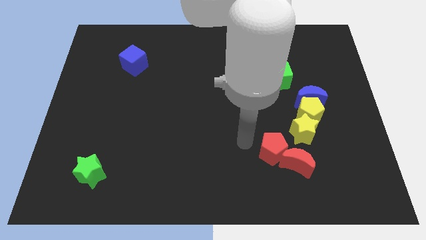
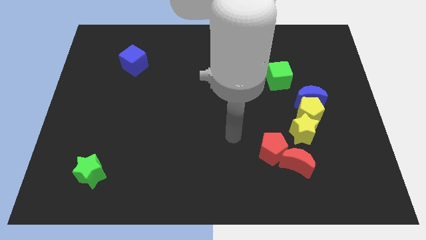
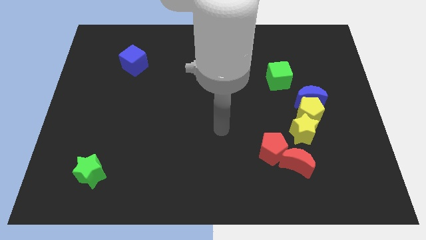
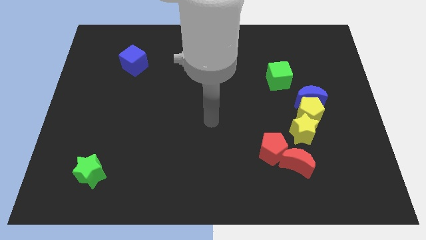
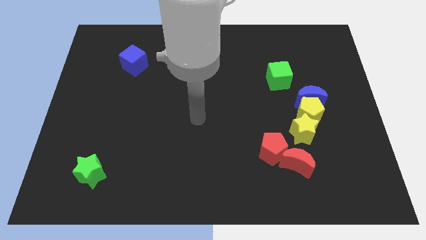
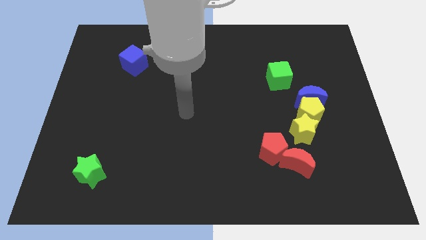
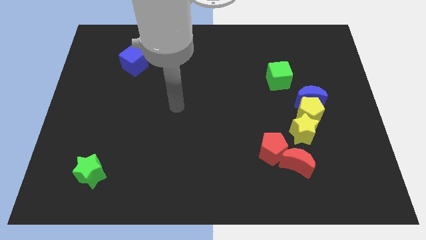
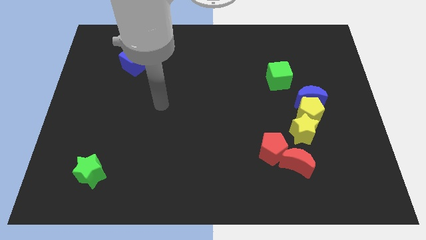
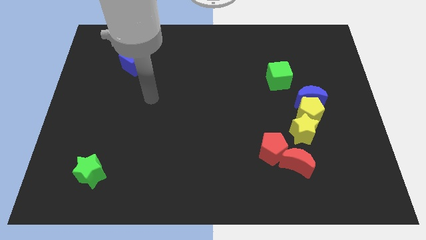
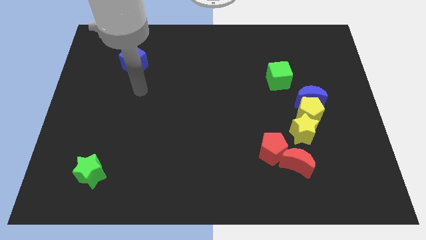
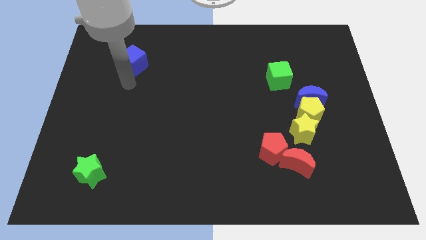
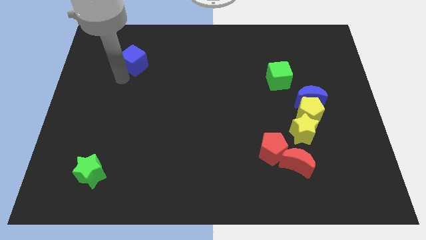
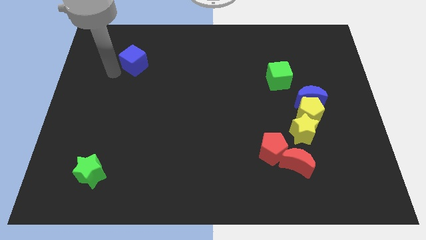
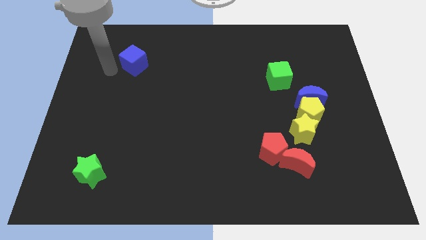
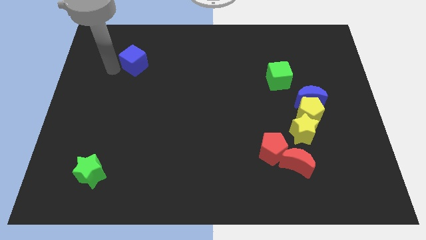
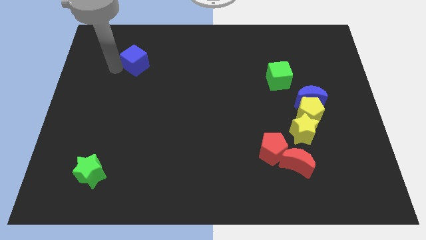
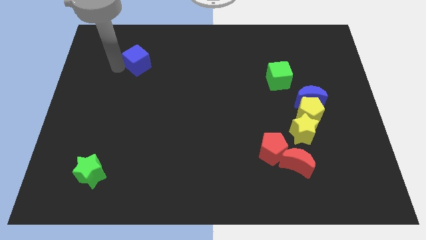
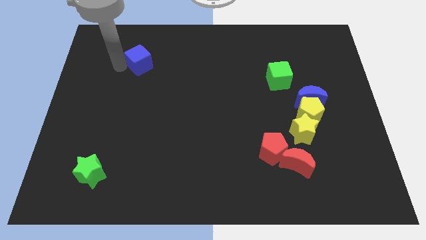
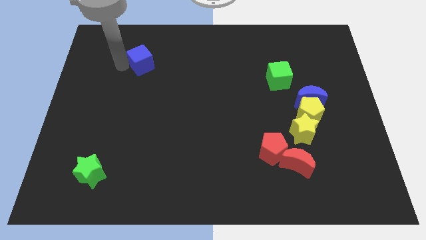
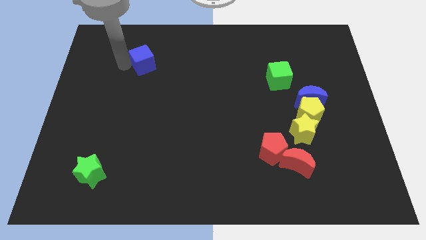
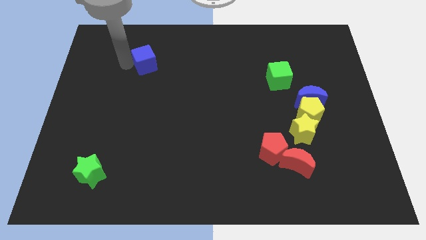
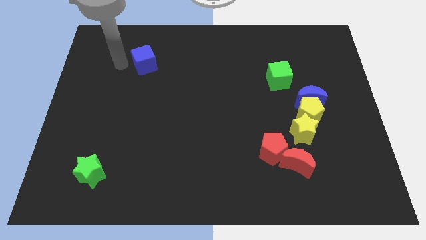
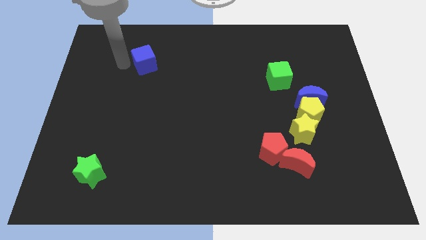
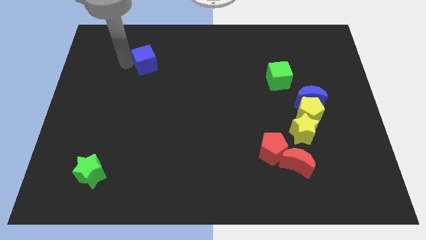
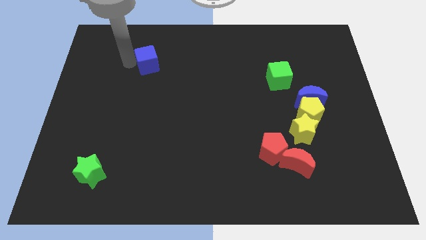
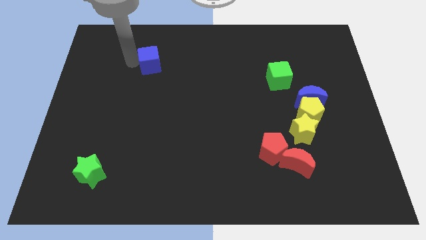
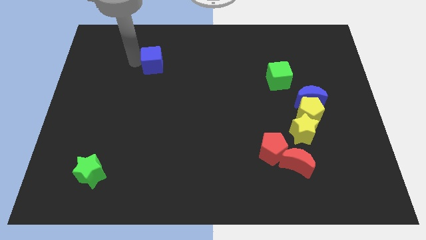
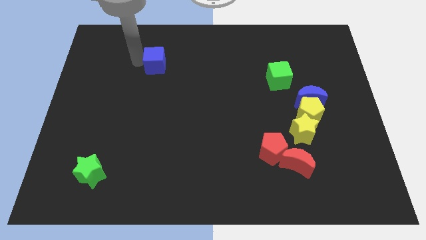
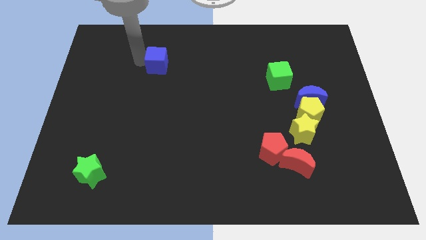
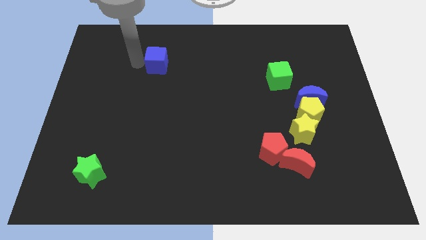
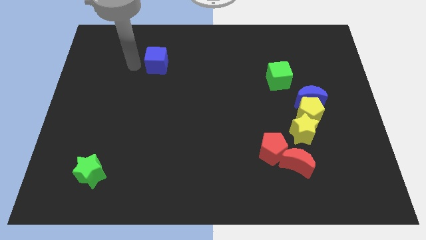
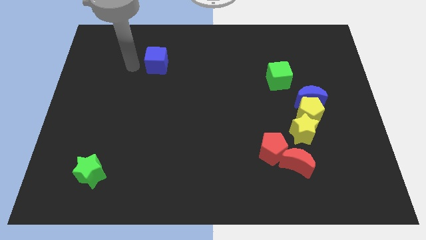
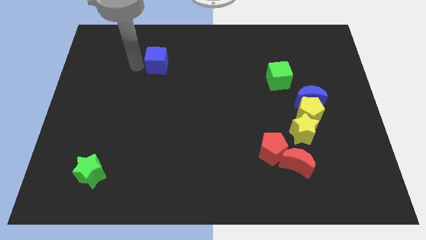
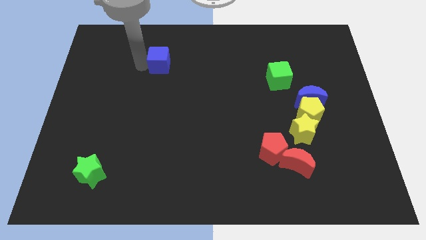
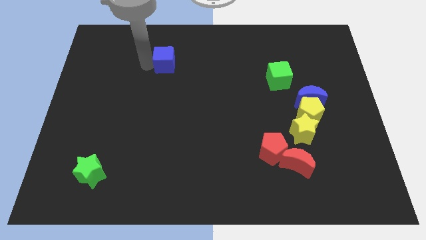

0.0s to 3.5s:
push the blue cube a little bit to the right

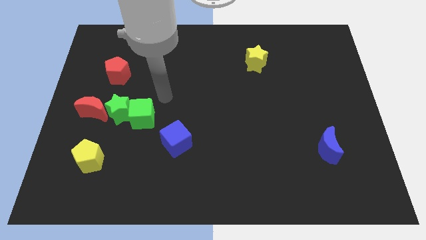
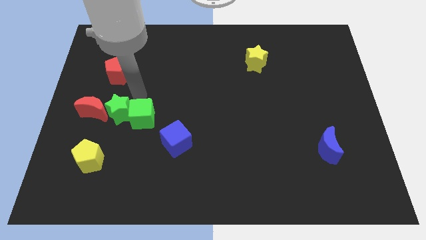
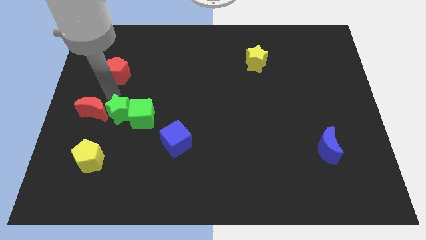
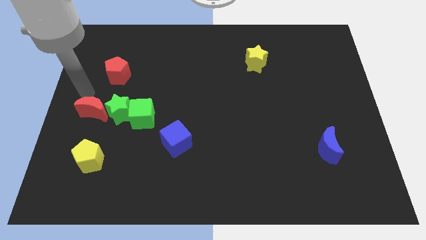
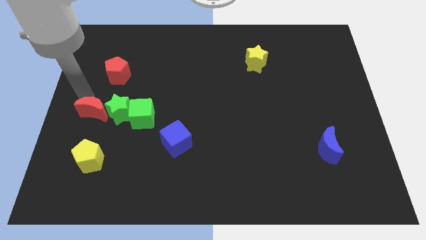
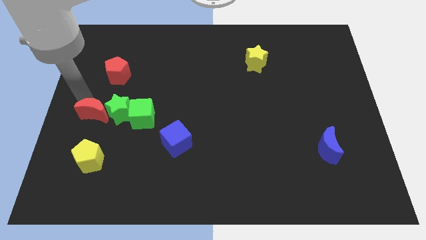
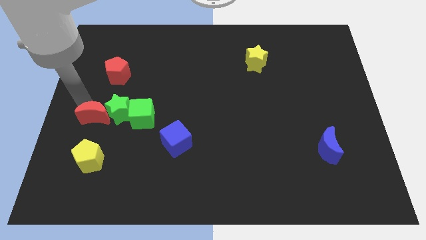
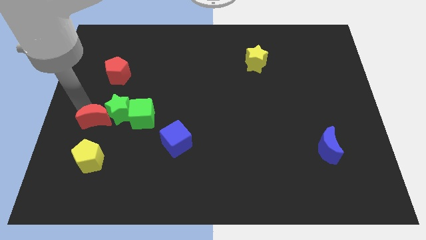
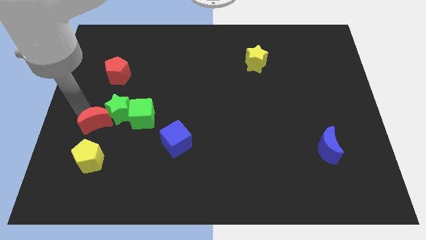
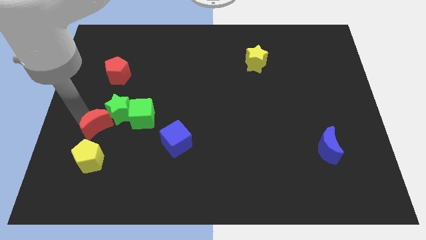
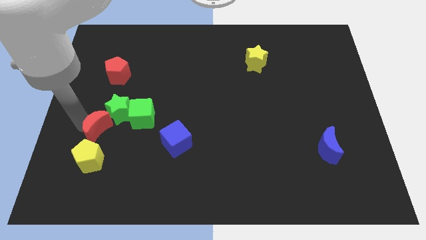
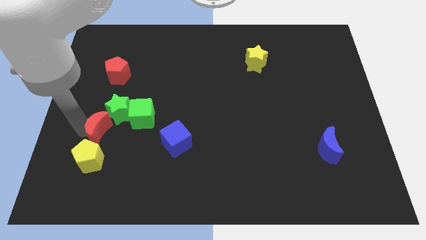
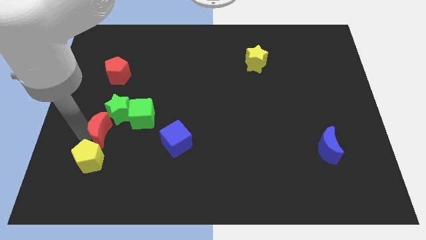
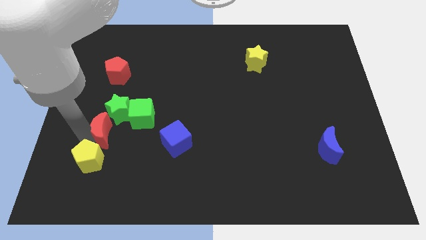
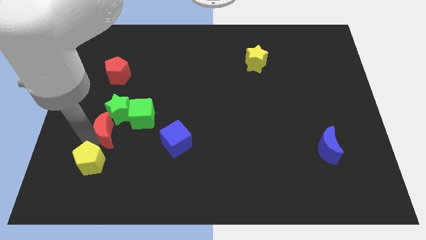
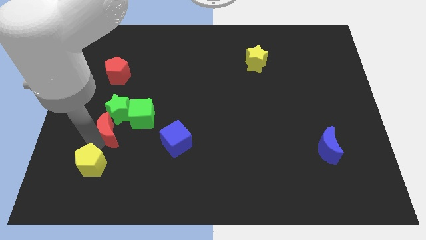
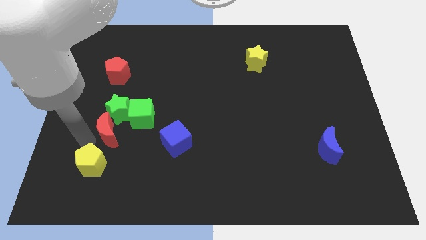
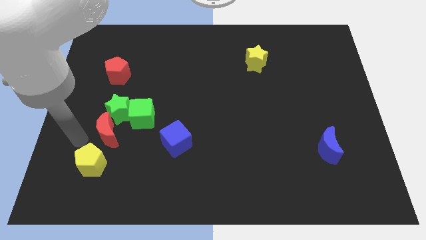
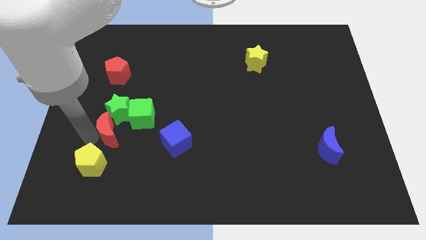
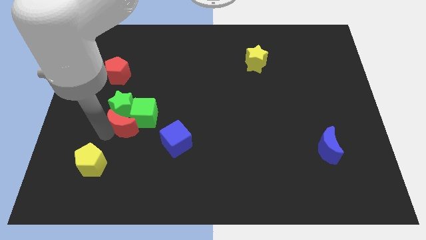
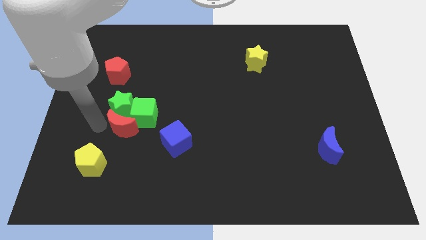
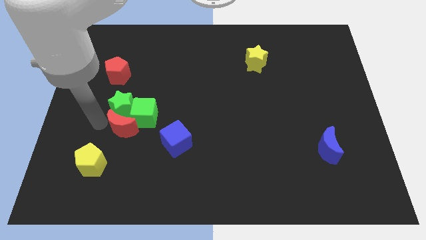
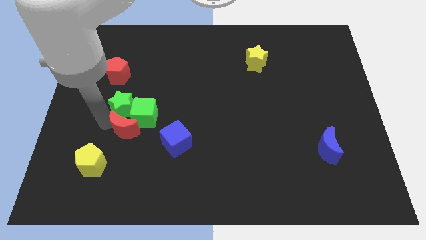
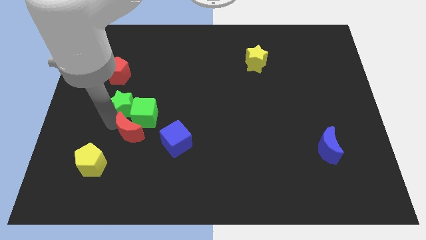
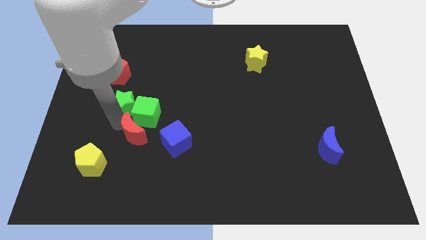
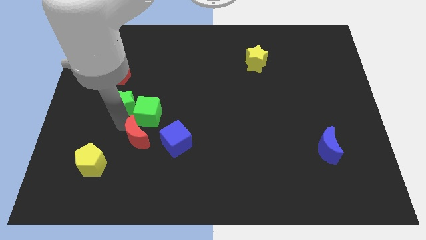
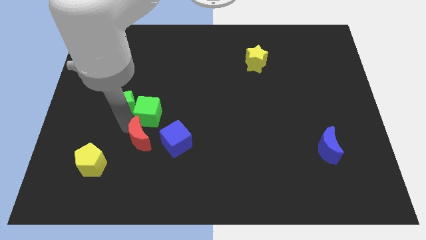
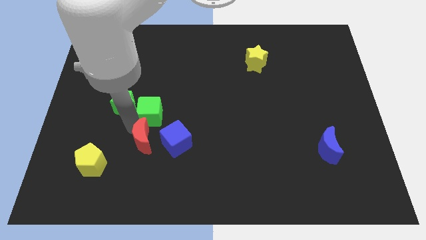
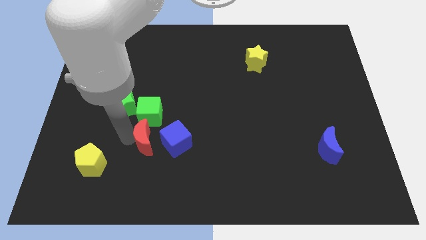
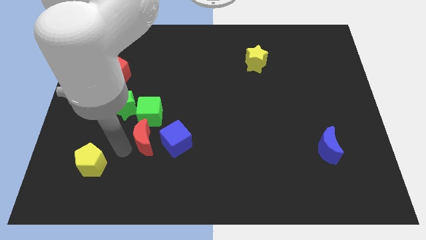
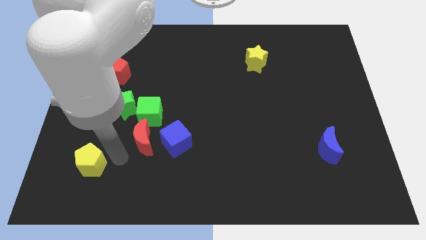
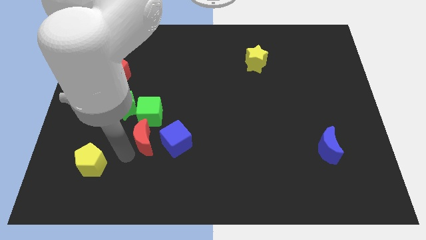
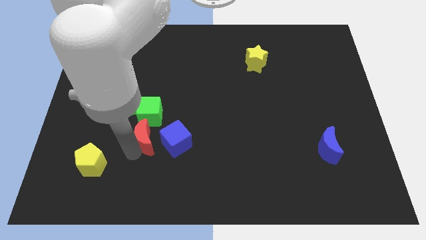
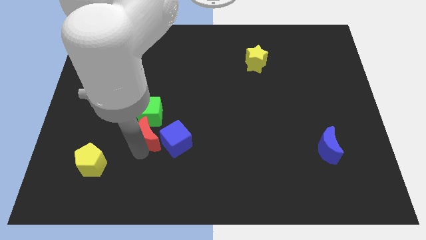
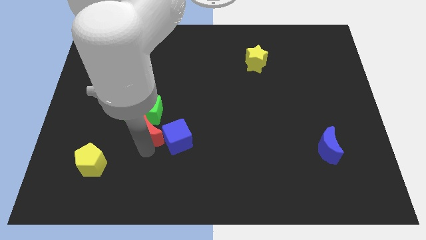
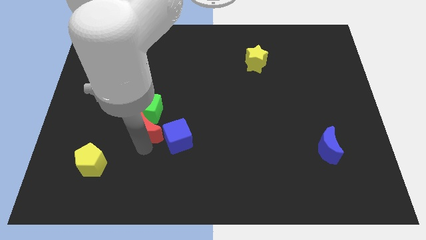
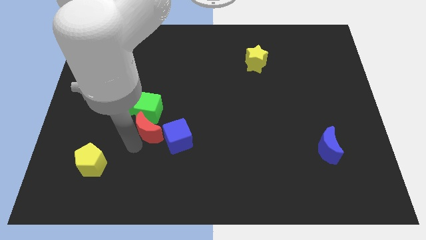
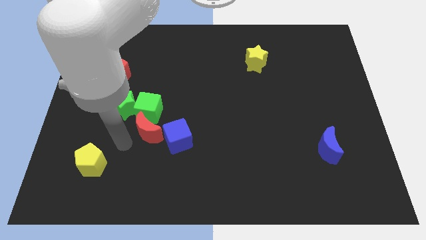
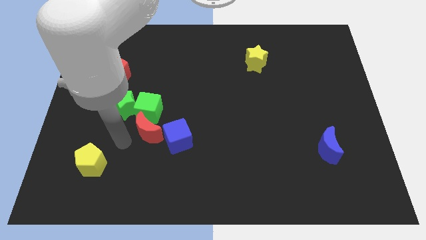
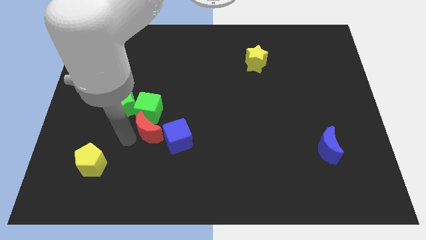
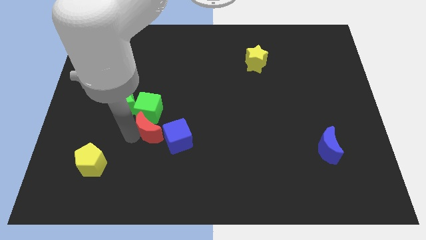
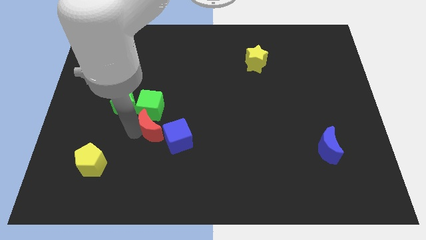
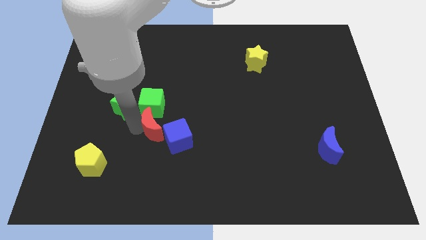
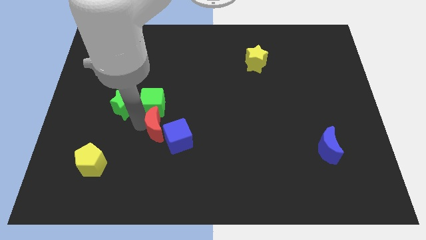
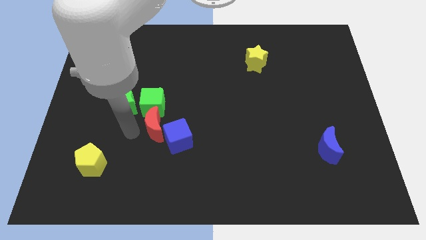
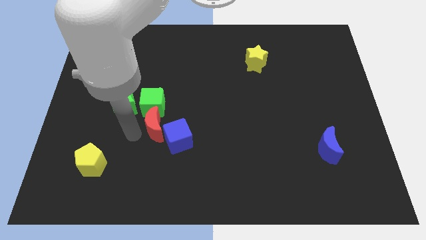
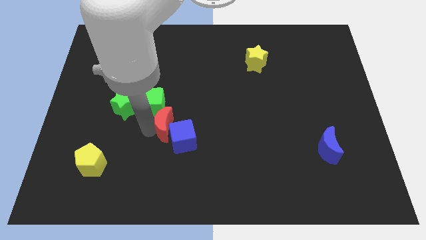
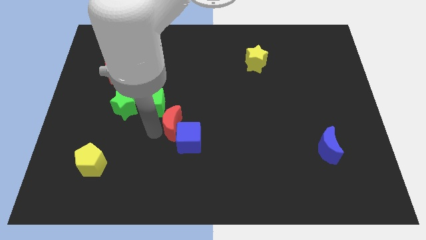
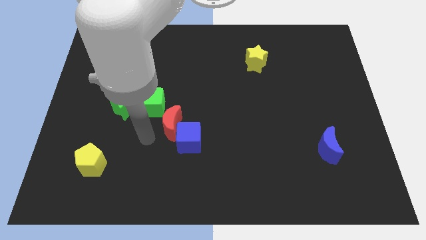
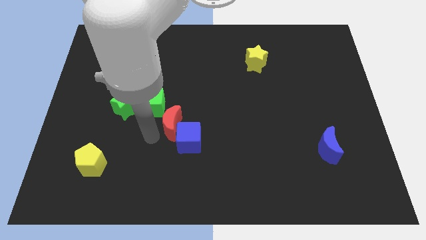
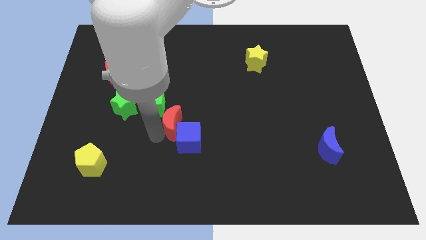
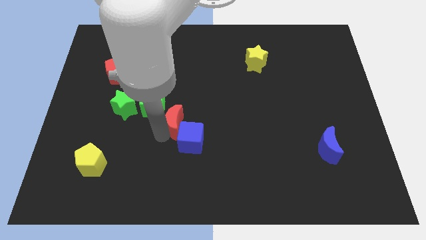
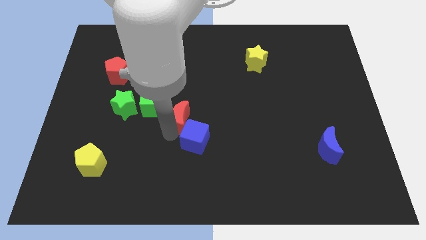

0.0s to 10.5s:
slide the red moon to the right
